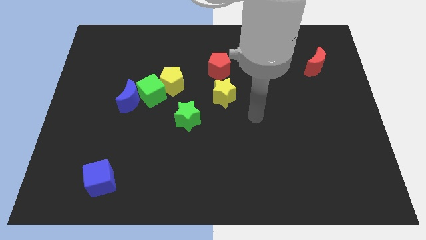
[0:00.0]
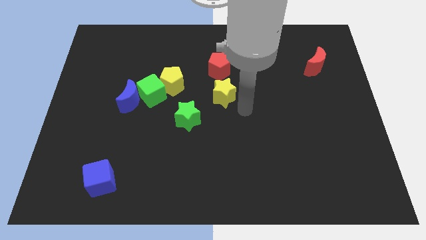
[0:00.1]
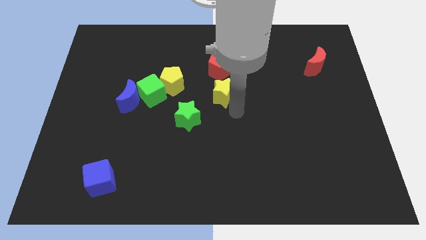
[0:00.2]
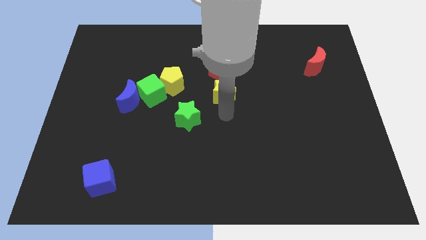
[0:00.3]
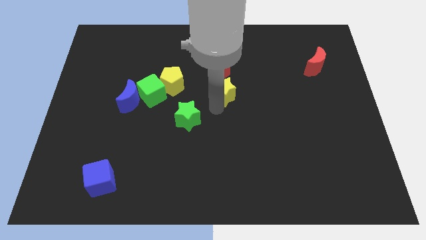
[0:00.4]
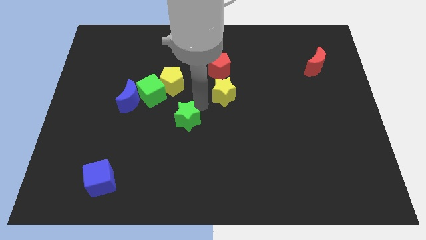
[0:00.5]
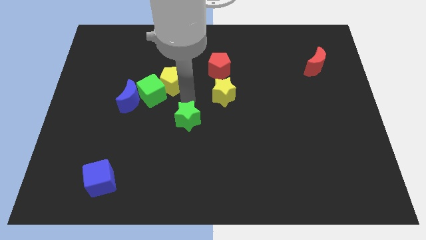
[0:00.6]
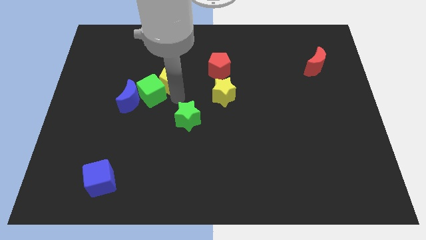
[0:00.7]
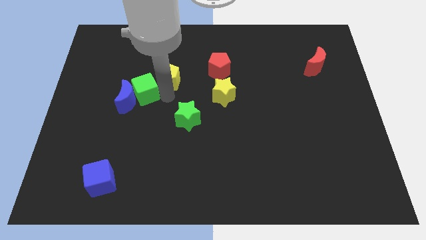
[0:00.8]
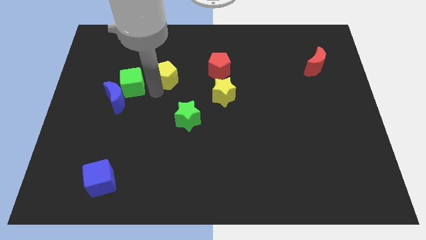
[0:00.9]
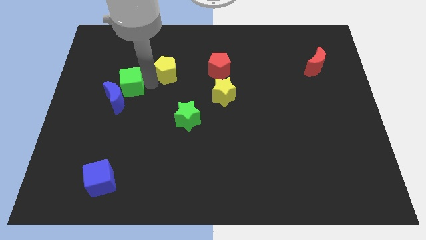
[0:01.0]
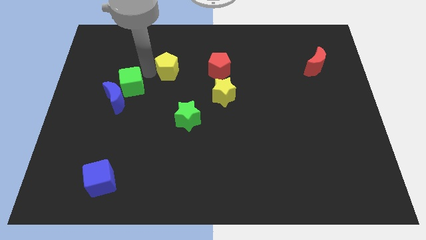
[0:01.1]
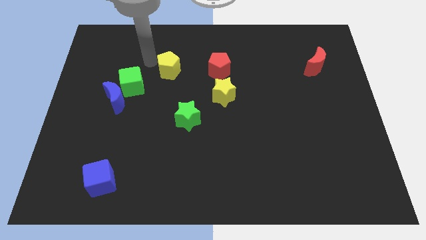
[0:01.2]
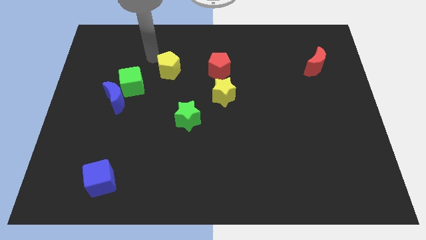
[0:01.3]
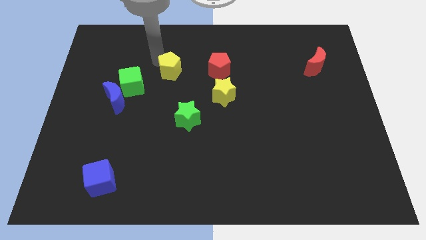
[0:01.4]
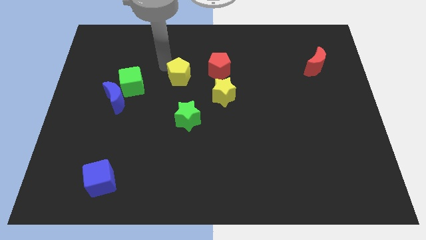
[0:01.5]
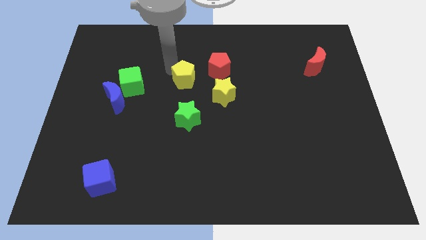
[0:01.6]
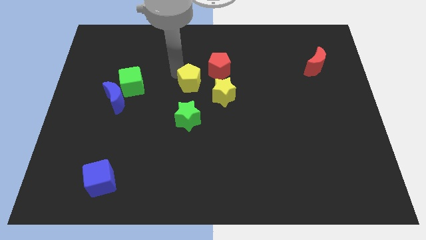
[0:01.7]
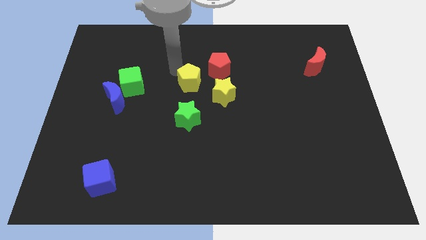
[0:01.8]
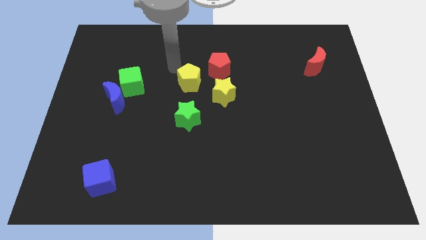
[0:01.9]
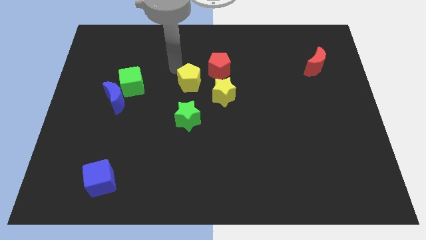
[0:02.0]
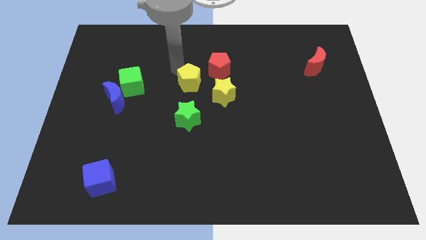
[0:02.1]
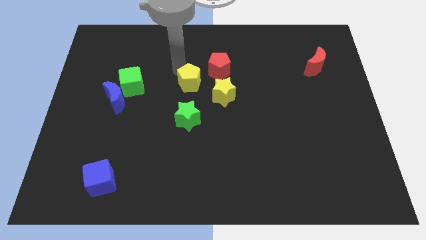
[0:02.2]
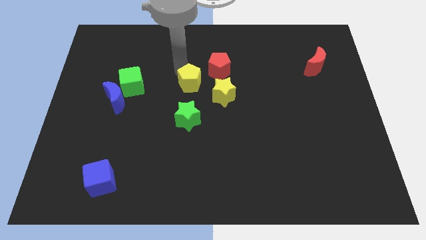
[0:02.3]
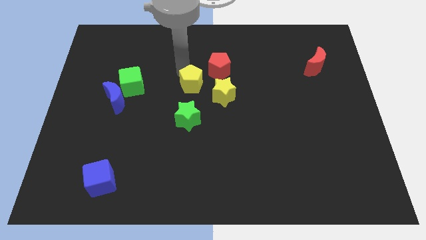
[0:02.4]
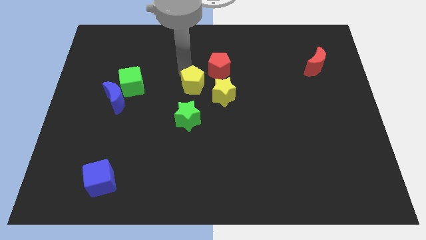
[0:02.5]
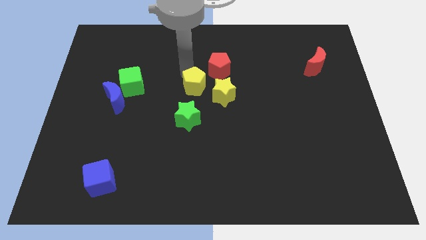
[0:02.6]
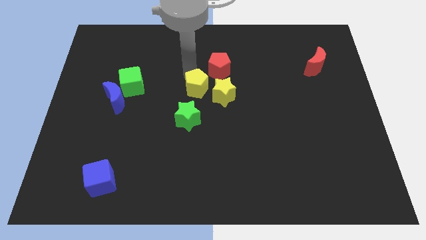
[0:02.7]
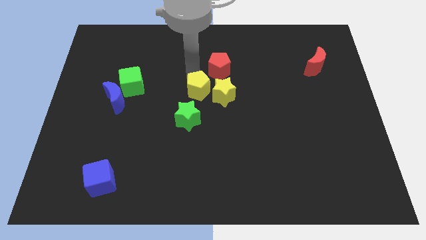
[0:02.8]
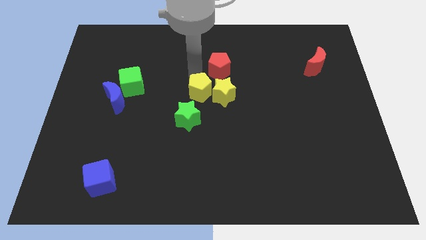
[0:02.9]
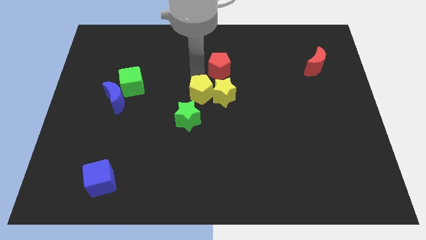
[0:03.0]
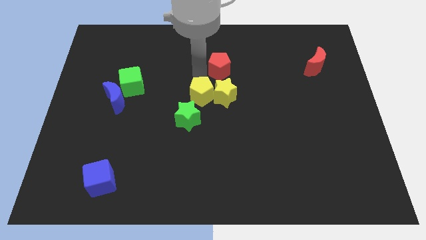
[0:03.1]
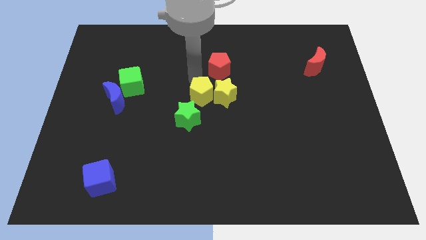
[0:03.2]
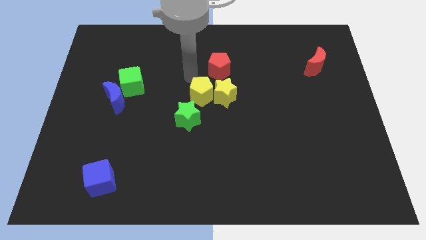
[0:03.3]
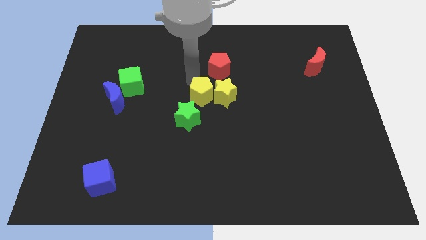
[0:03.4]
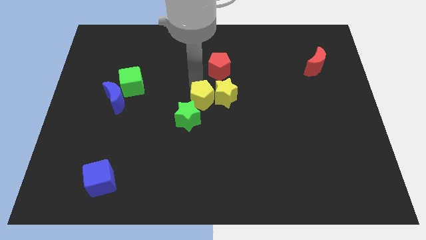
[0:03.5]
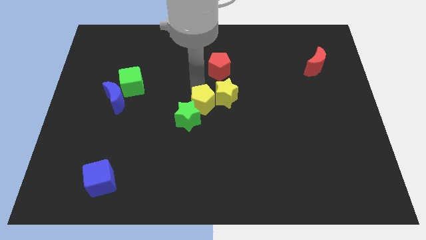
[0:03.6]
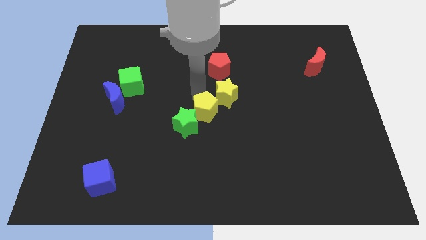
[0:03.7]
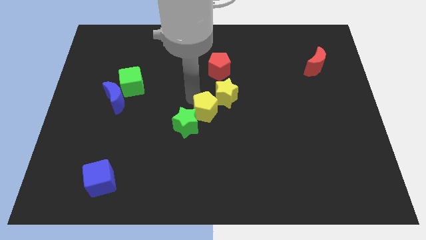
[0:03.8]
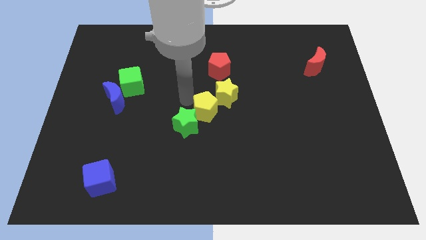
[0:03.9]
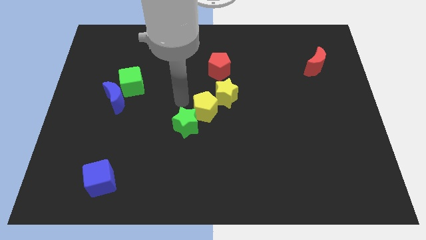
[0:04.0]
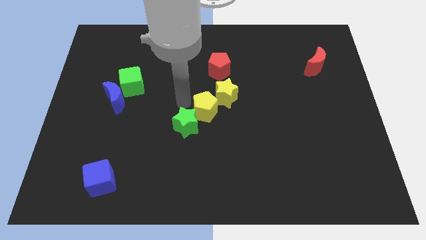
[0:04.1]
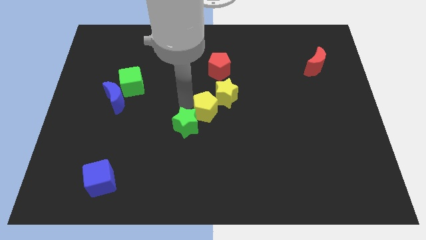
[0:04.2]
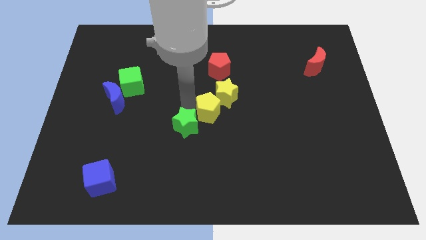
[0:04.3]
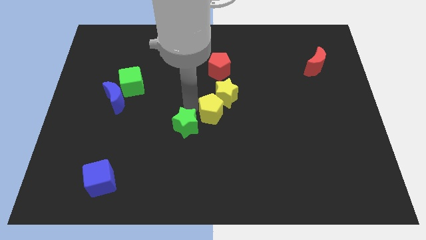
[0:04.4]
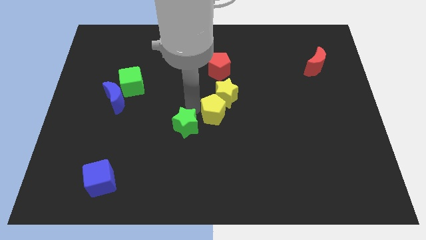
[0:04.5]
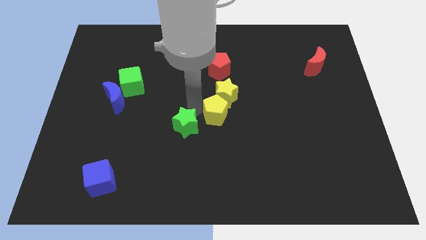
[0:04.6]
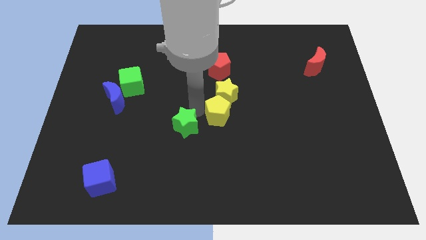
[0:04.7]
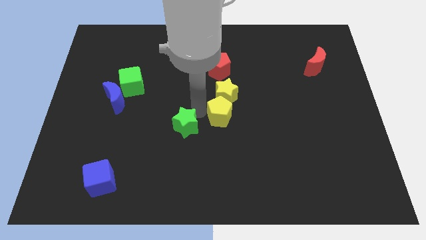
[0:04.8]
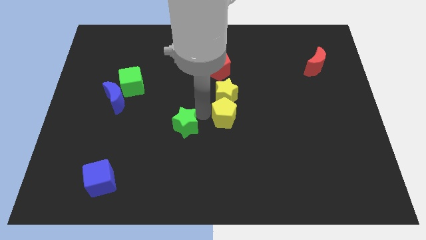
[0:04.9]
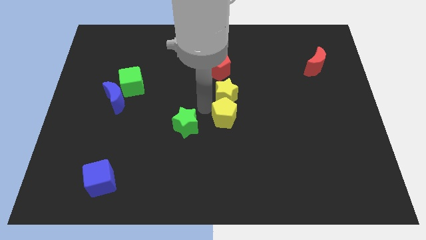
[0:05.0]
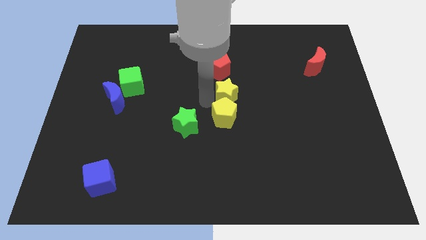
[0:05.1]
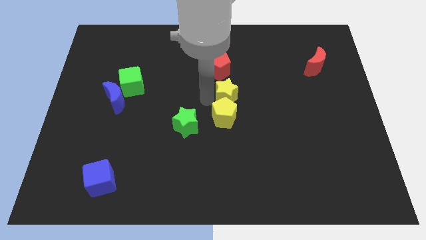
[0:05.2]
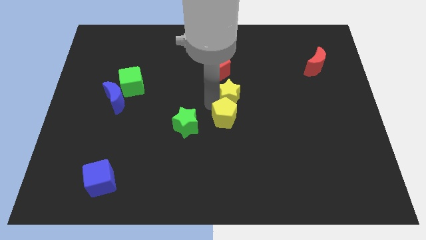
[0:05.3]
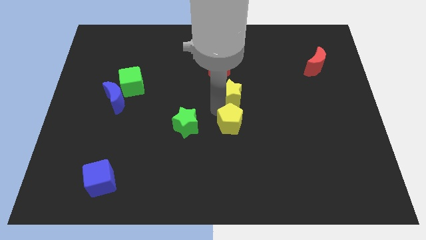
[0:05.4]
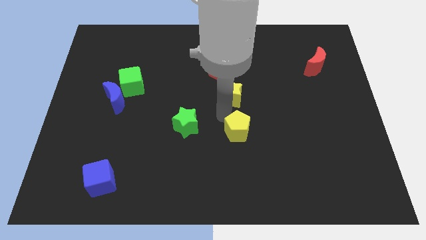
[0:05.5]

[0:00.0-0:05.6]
slide the yellow pentagon down and right

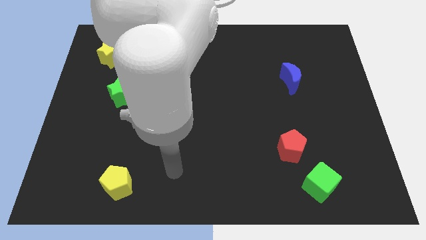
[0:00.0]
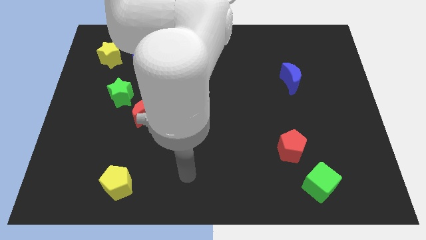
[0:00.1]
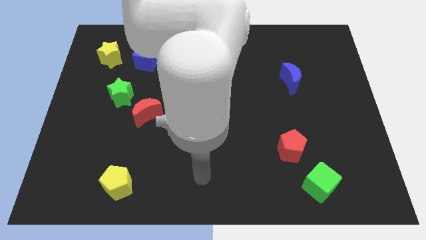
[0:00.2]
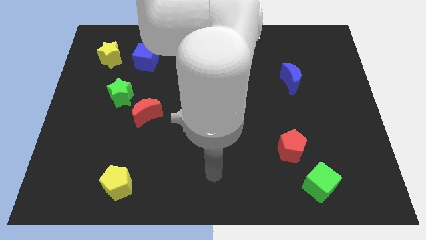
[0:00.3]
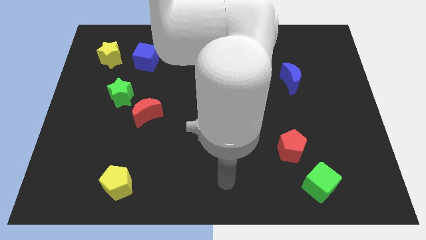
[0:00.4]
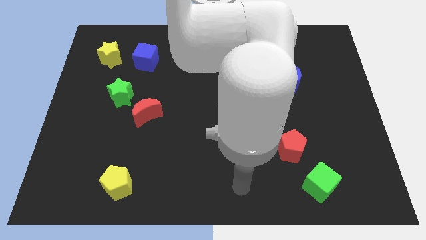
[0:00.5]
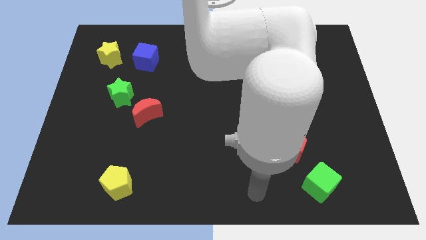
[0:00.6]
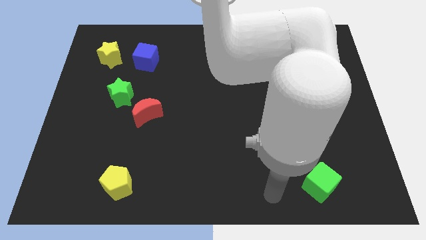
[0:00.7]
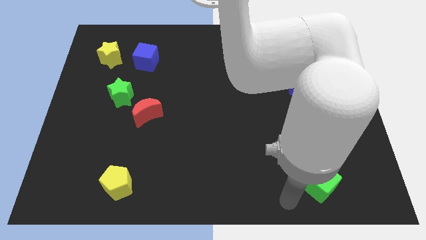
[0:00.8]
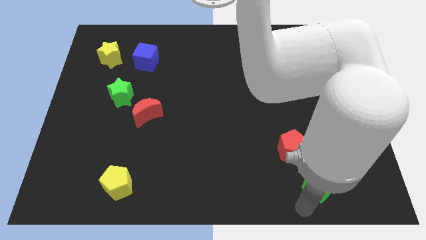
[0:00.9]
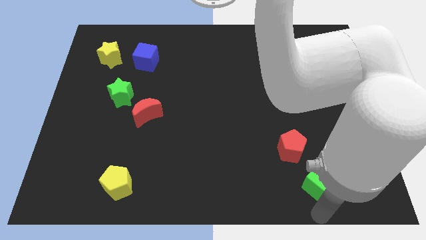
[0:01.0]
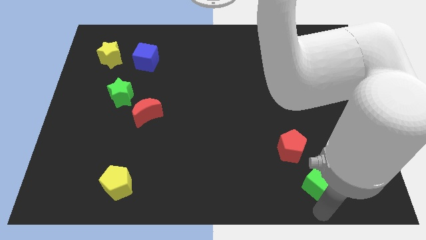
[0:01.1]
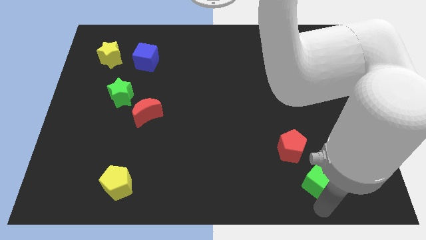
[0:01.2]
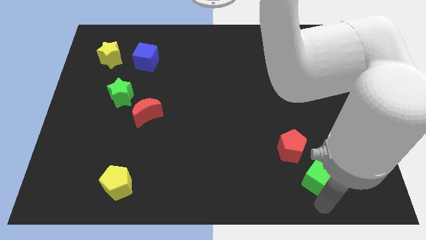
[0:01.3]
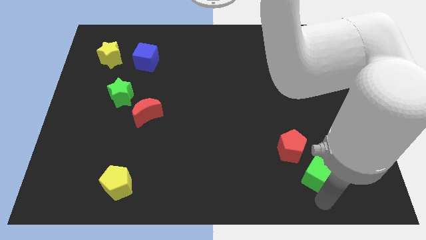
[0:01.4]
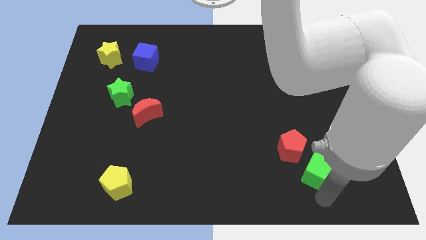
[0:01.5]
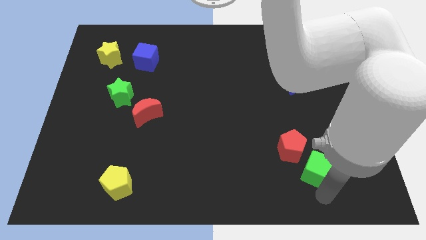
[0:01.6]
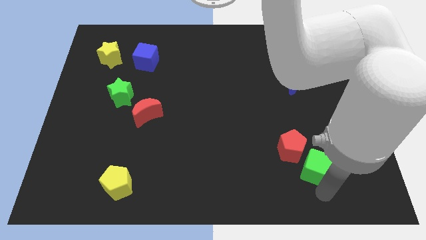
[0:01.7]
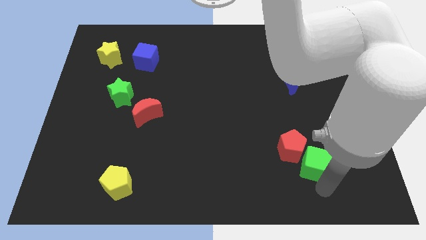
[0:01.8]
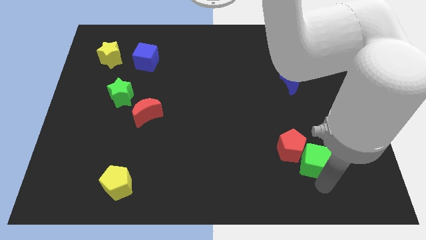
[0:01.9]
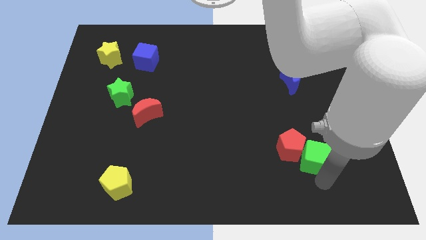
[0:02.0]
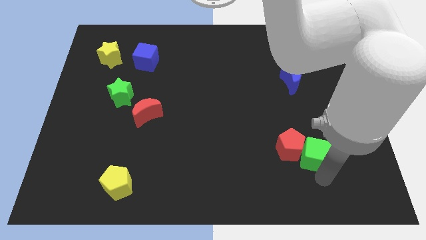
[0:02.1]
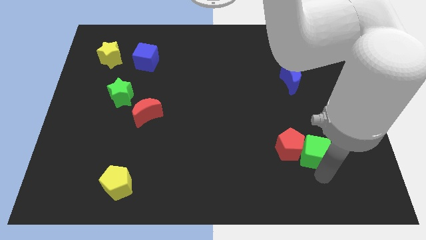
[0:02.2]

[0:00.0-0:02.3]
push the green cube upwards slightly

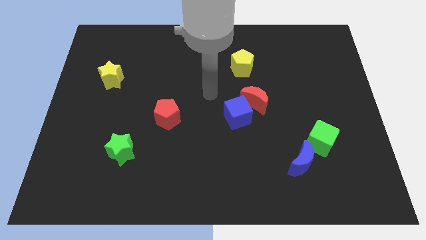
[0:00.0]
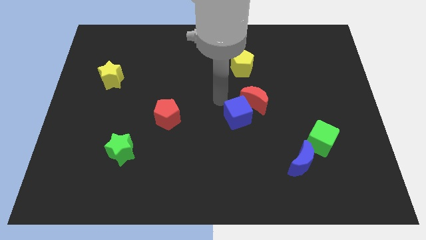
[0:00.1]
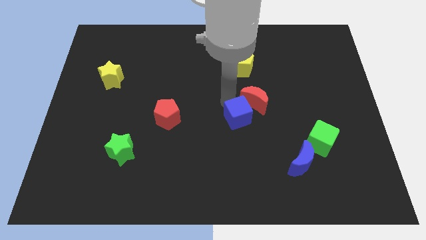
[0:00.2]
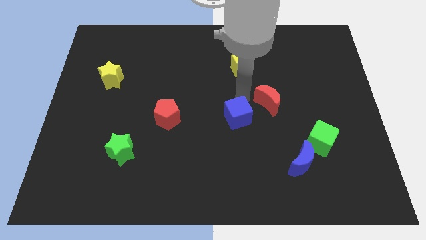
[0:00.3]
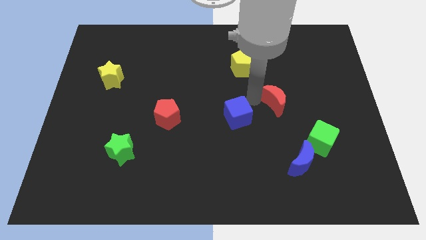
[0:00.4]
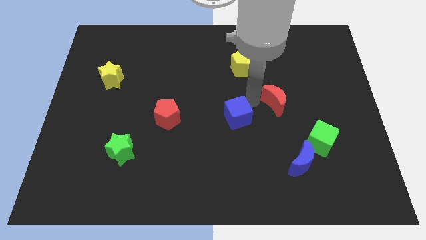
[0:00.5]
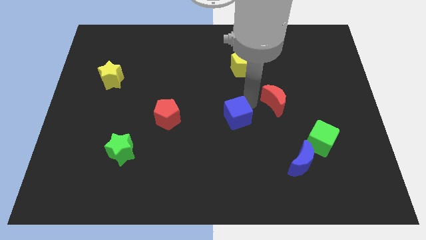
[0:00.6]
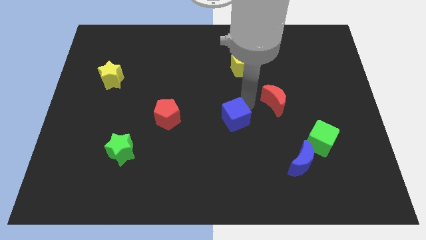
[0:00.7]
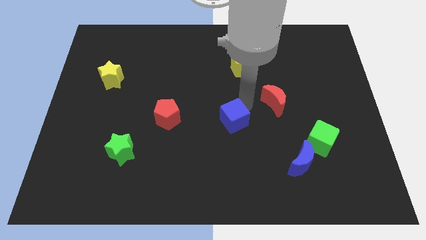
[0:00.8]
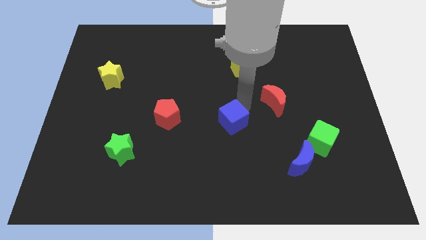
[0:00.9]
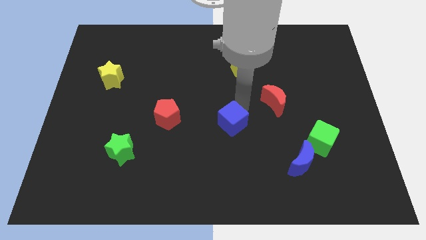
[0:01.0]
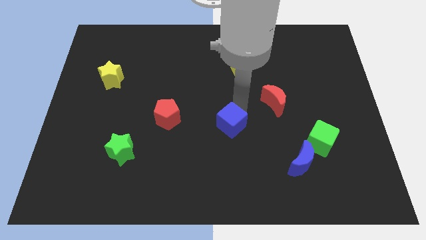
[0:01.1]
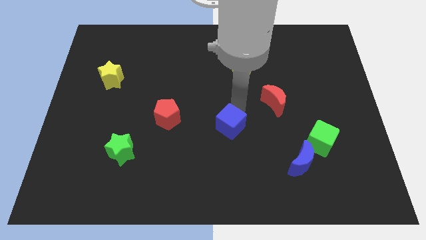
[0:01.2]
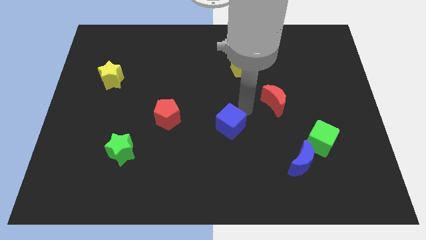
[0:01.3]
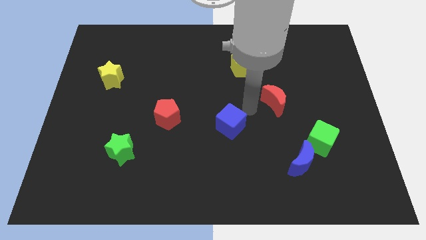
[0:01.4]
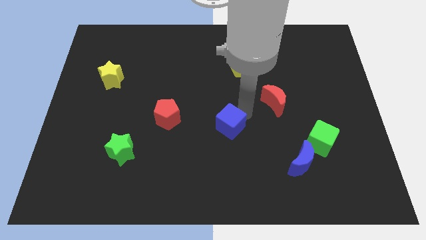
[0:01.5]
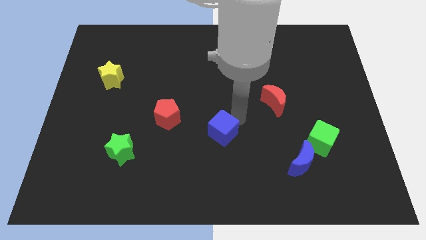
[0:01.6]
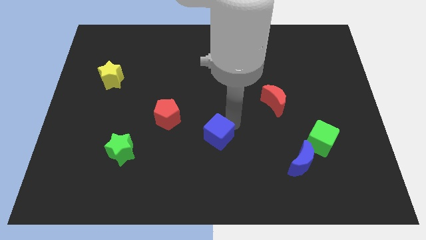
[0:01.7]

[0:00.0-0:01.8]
slide the blue cube slightly diagonally downwards and to the left
